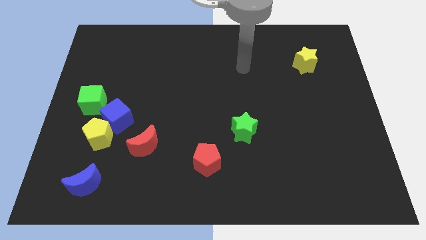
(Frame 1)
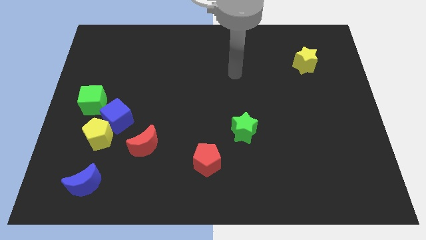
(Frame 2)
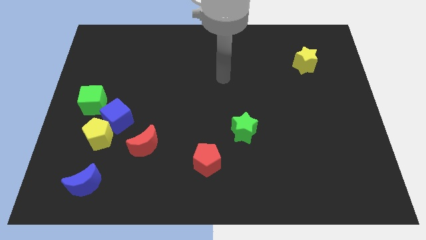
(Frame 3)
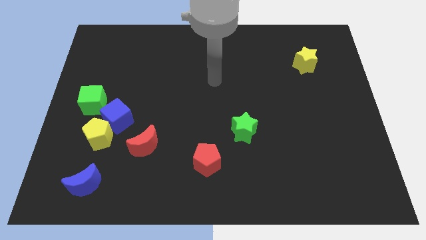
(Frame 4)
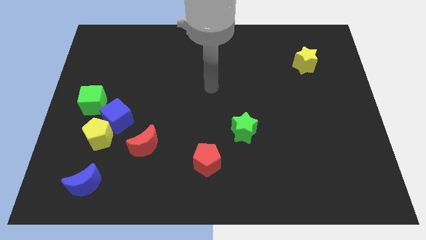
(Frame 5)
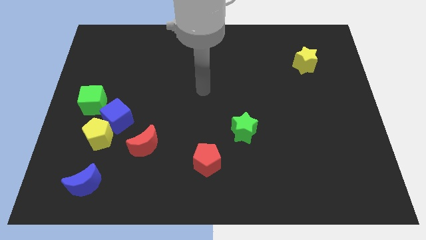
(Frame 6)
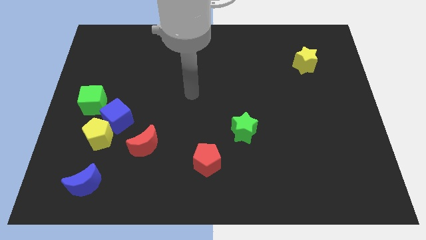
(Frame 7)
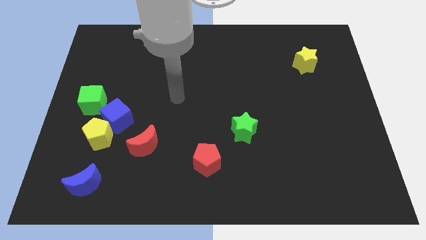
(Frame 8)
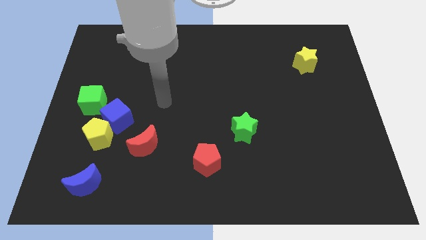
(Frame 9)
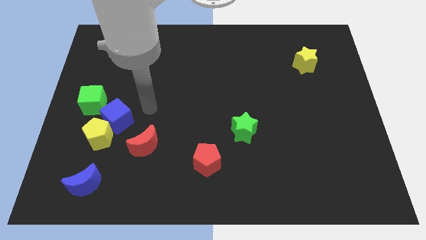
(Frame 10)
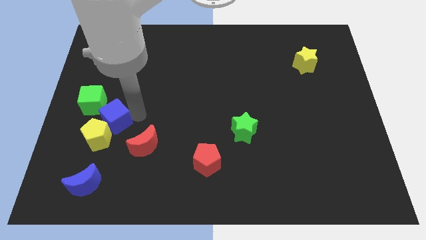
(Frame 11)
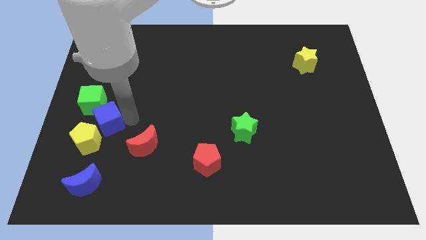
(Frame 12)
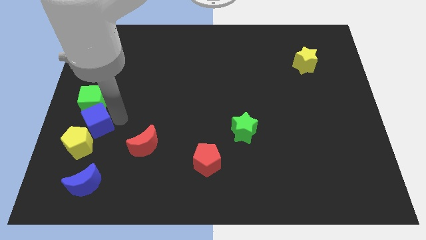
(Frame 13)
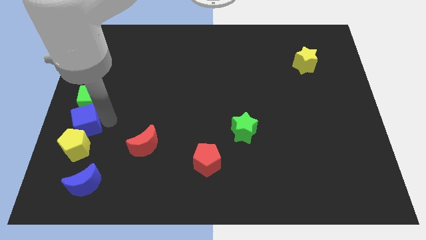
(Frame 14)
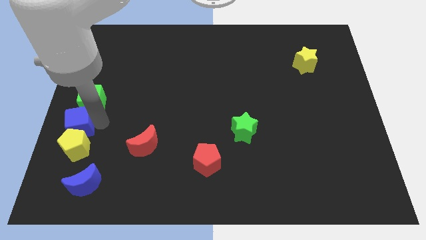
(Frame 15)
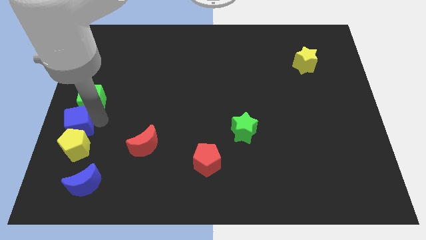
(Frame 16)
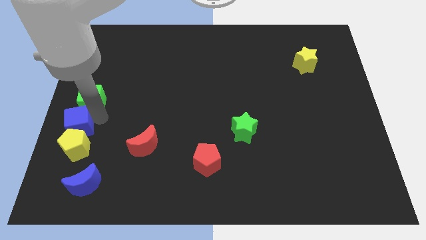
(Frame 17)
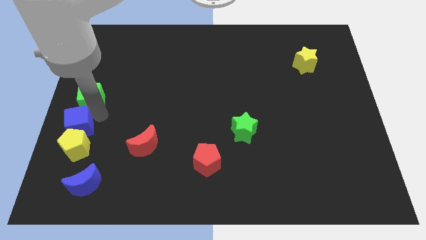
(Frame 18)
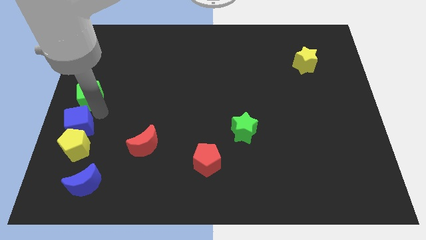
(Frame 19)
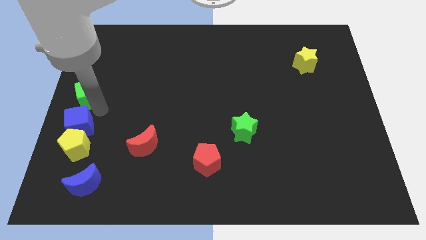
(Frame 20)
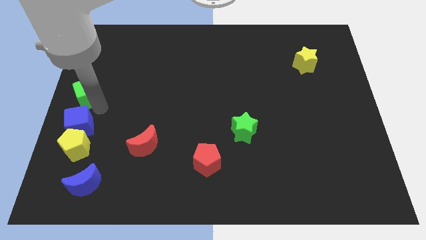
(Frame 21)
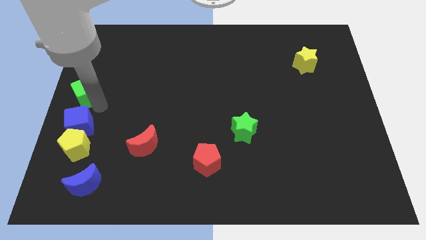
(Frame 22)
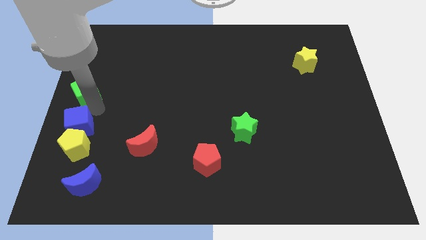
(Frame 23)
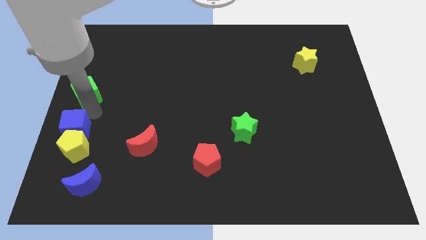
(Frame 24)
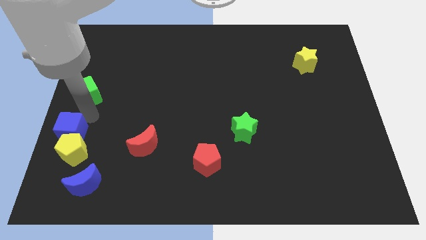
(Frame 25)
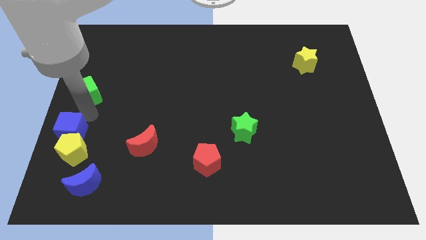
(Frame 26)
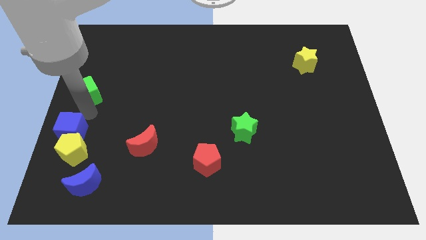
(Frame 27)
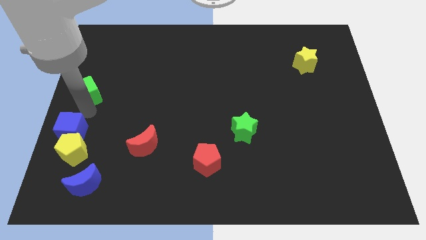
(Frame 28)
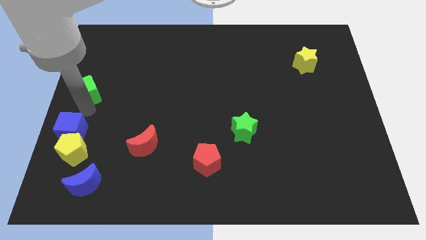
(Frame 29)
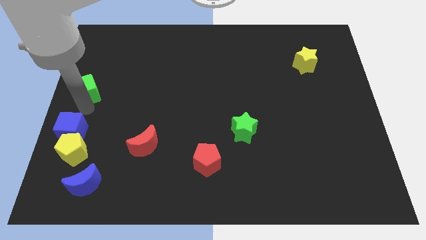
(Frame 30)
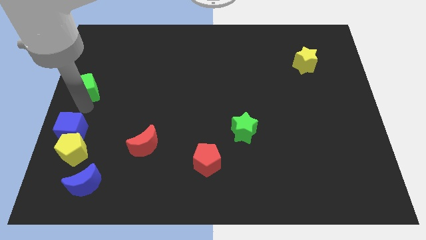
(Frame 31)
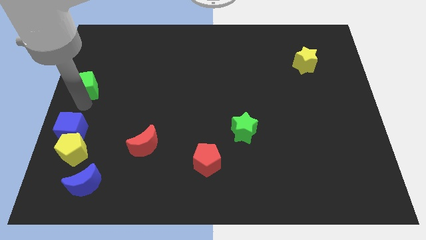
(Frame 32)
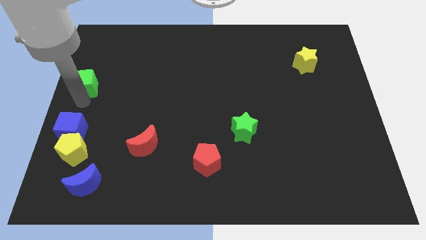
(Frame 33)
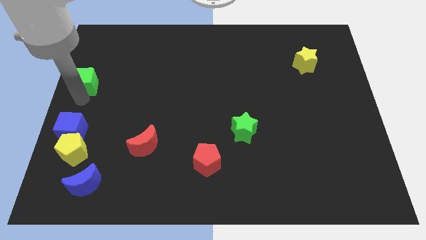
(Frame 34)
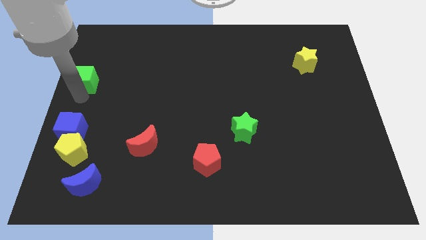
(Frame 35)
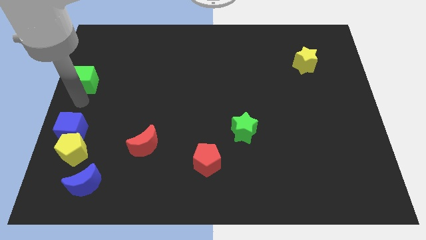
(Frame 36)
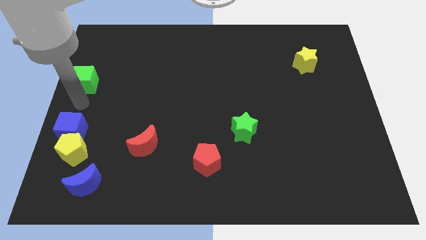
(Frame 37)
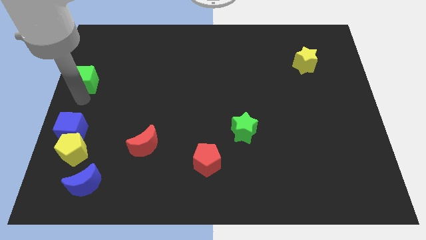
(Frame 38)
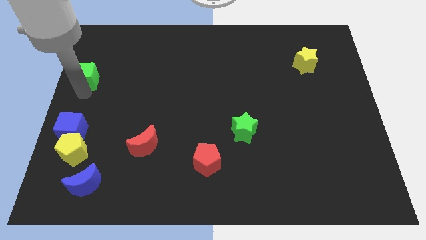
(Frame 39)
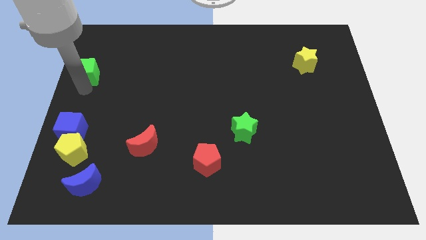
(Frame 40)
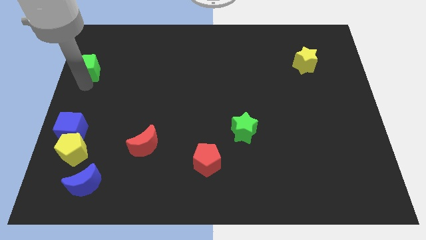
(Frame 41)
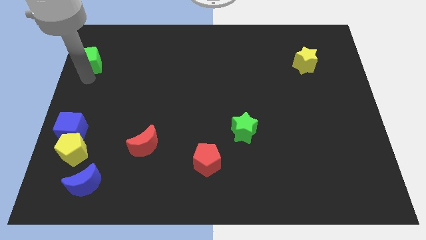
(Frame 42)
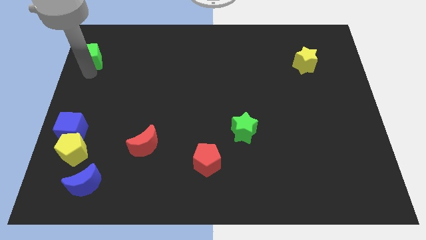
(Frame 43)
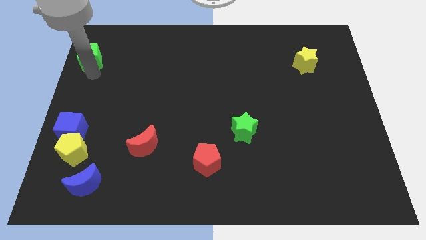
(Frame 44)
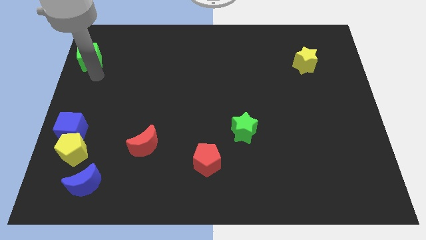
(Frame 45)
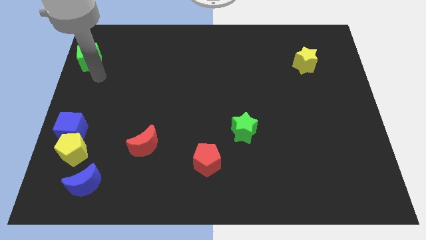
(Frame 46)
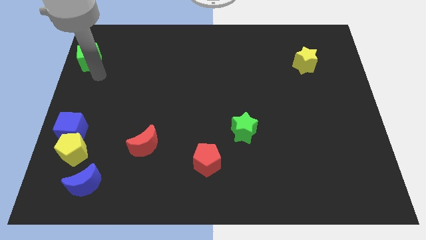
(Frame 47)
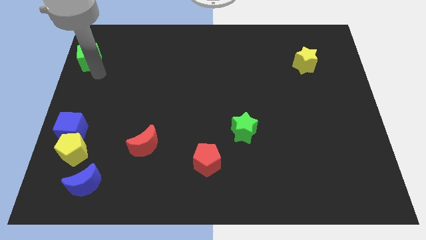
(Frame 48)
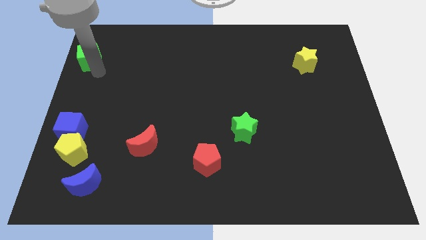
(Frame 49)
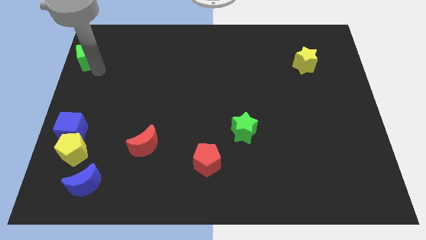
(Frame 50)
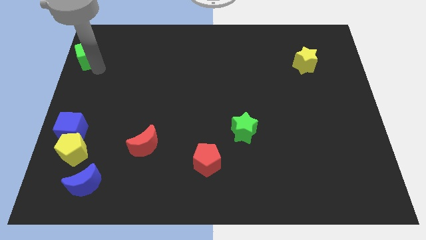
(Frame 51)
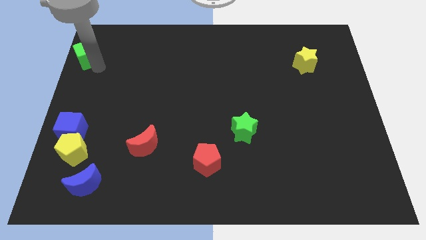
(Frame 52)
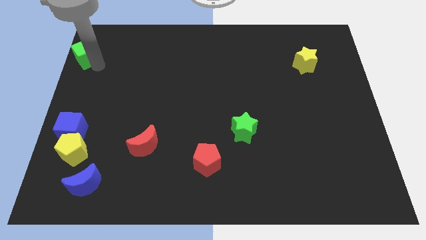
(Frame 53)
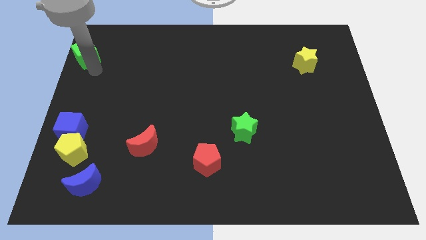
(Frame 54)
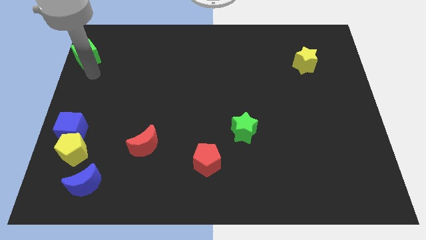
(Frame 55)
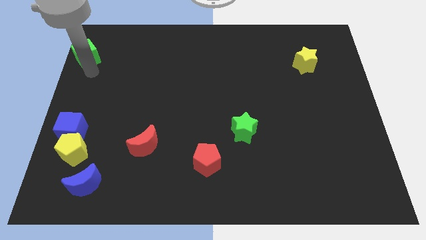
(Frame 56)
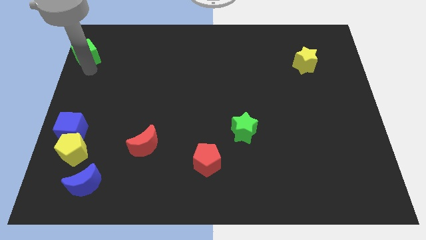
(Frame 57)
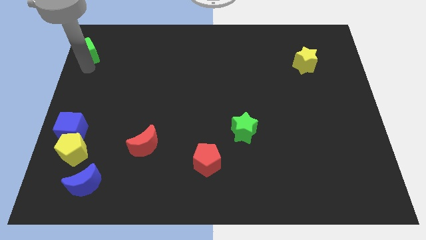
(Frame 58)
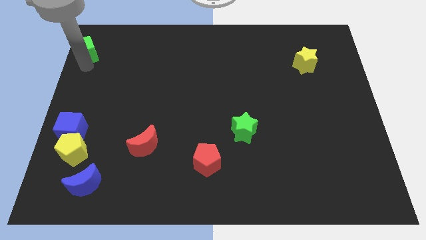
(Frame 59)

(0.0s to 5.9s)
slide the green cube to the upper left corner

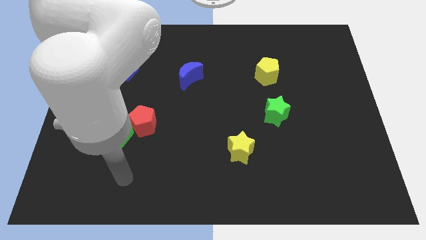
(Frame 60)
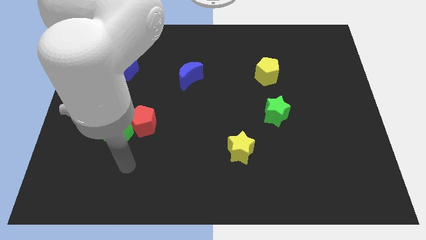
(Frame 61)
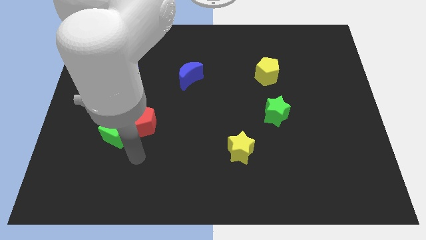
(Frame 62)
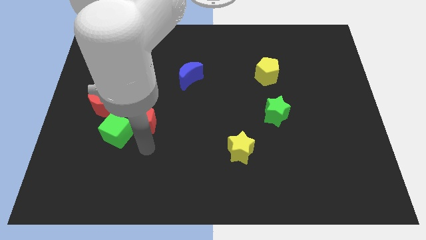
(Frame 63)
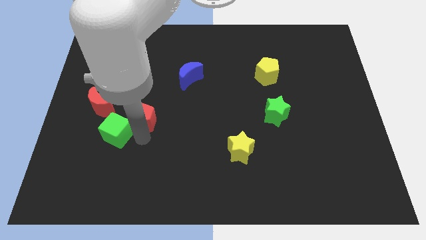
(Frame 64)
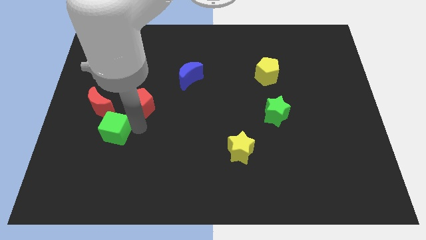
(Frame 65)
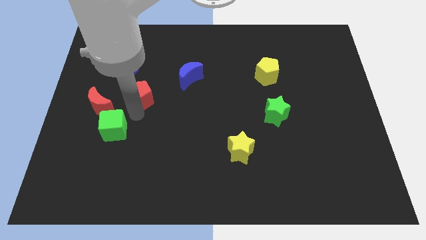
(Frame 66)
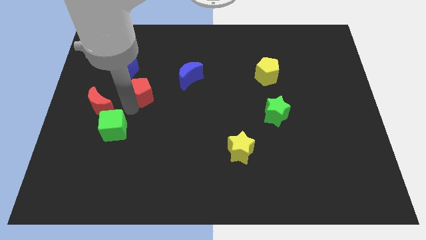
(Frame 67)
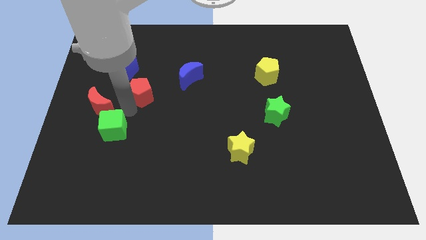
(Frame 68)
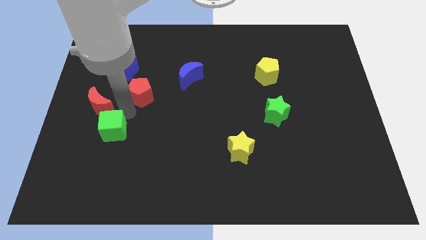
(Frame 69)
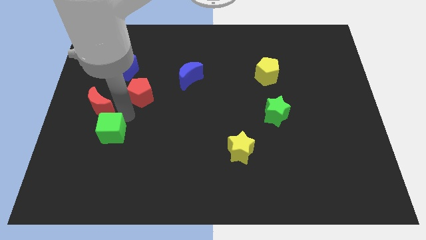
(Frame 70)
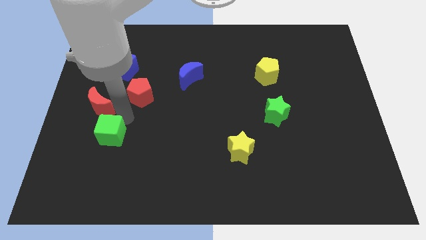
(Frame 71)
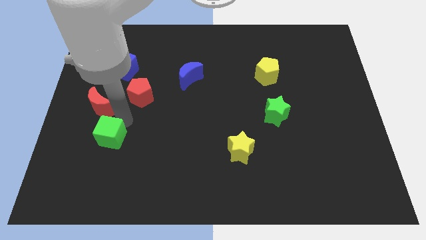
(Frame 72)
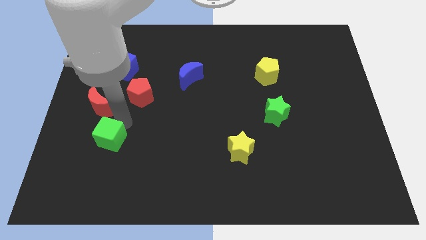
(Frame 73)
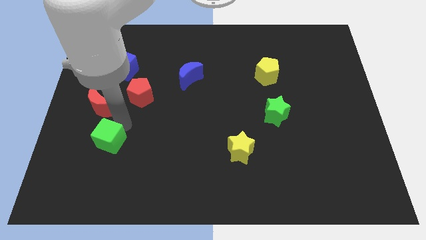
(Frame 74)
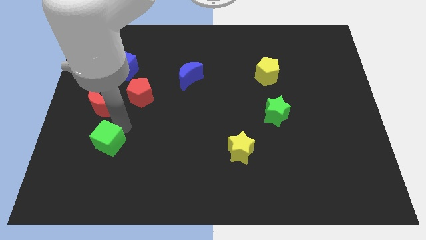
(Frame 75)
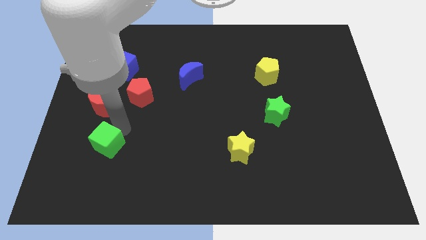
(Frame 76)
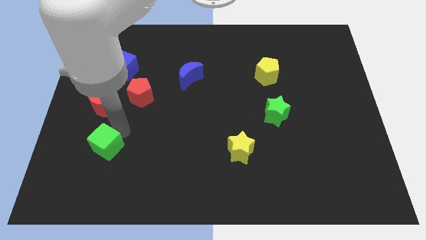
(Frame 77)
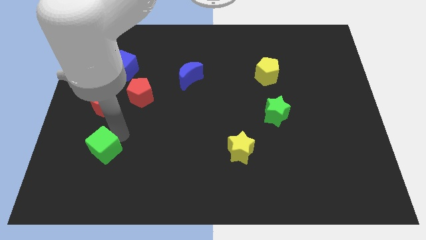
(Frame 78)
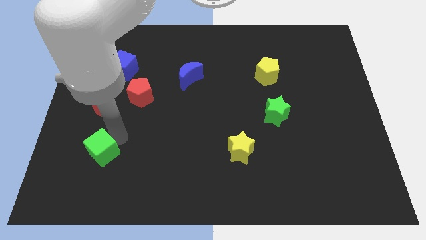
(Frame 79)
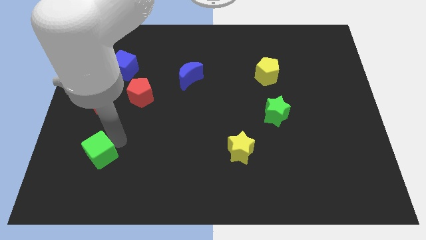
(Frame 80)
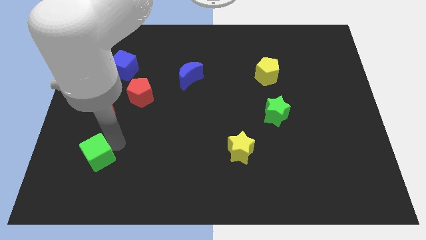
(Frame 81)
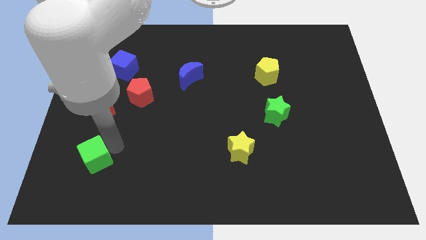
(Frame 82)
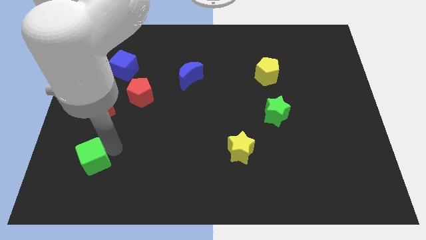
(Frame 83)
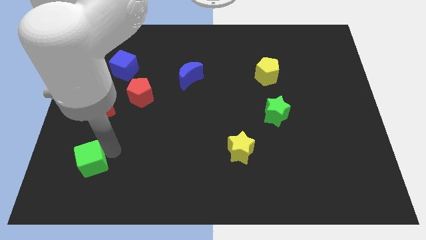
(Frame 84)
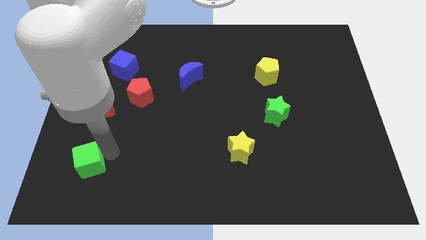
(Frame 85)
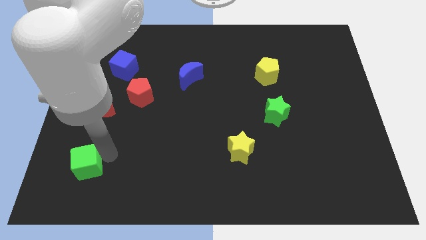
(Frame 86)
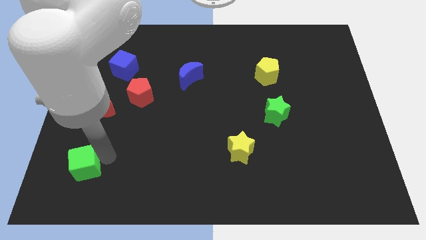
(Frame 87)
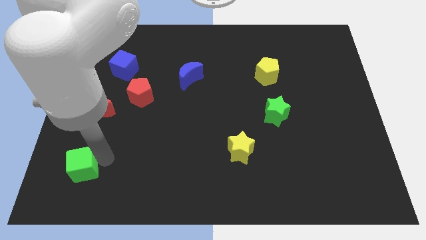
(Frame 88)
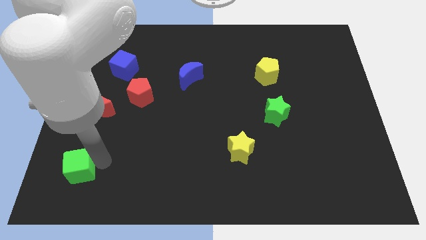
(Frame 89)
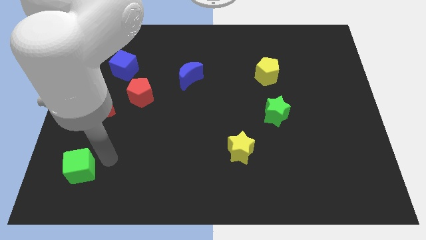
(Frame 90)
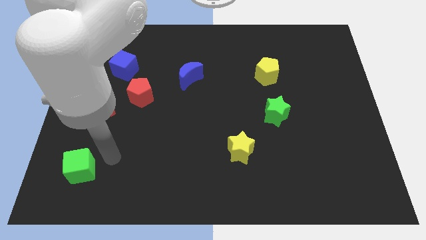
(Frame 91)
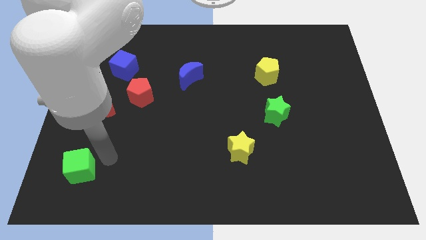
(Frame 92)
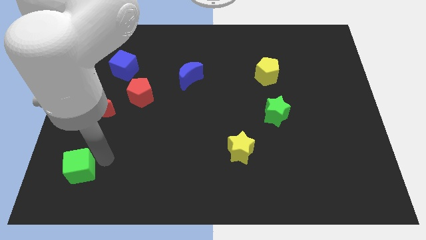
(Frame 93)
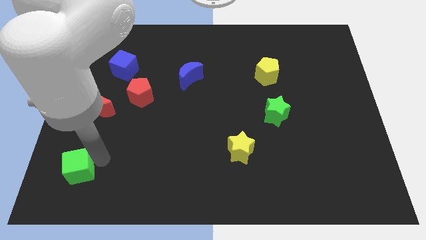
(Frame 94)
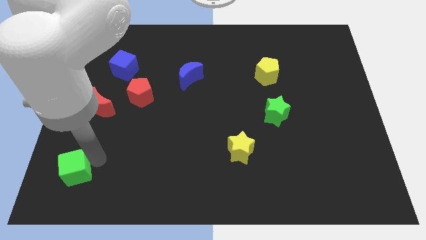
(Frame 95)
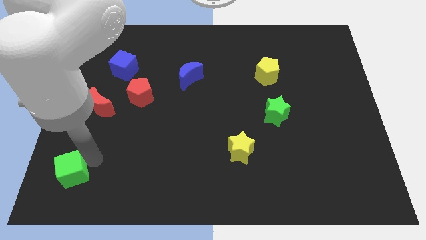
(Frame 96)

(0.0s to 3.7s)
move the green cube to the bottom left
